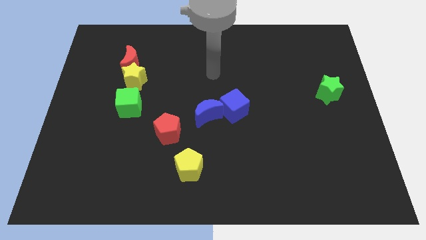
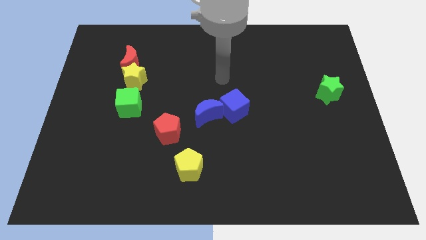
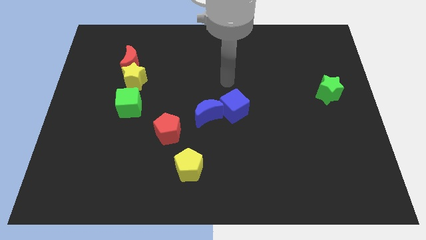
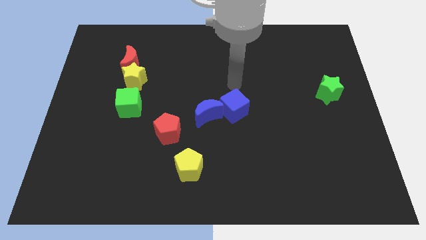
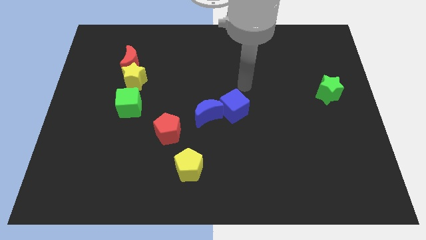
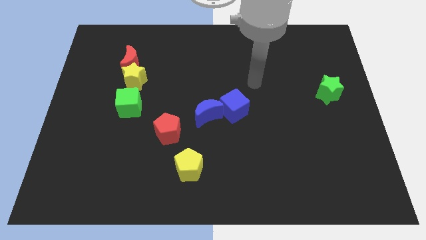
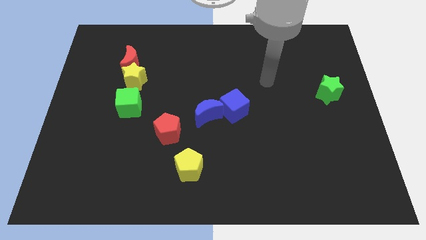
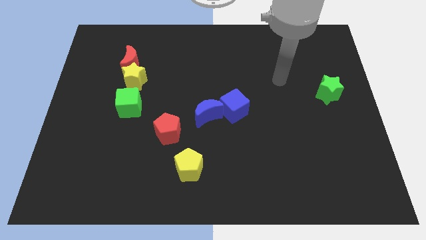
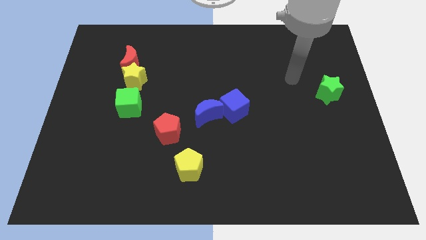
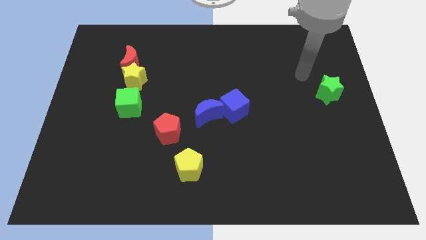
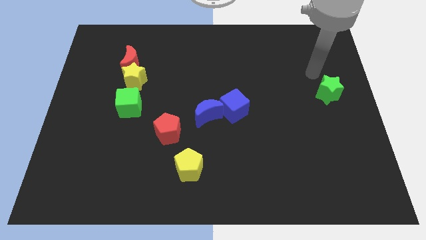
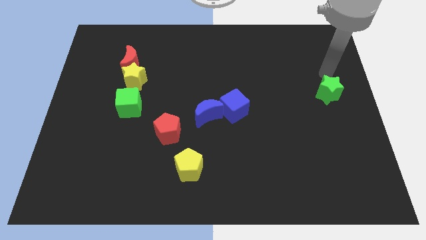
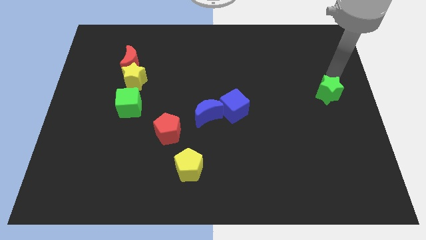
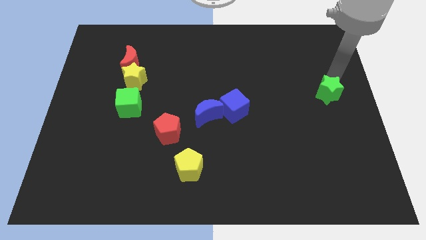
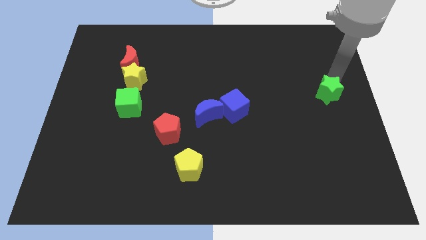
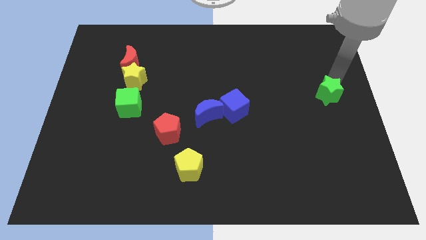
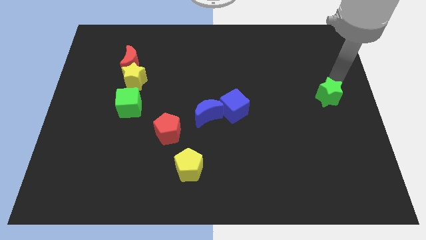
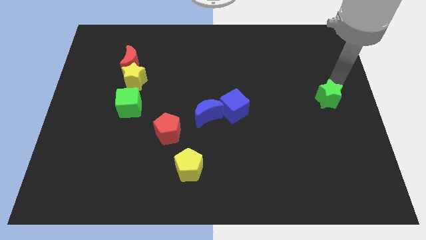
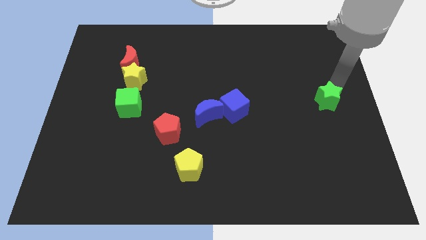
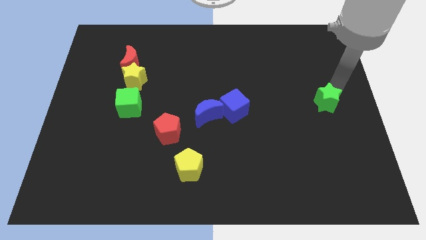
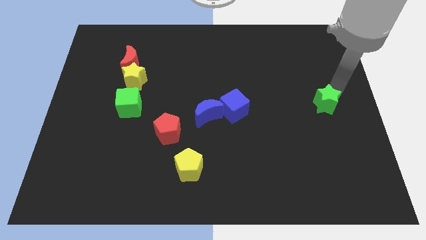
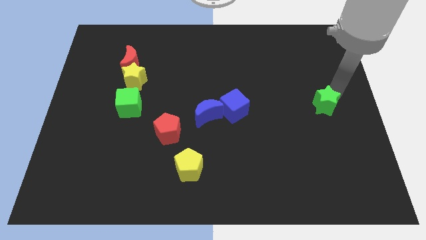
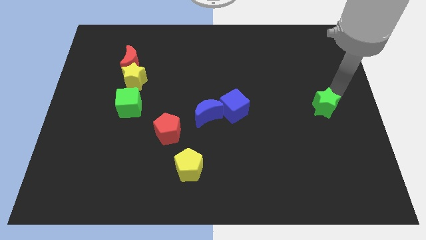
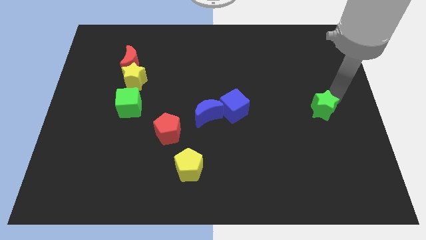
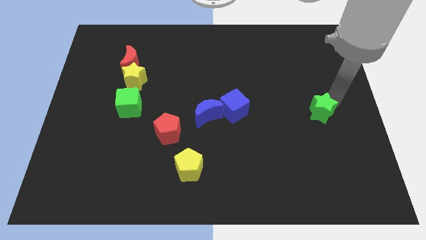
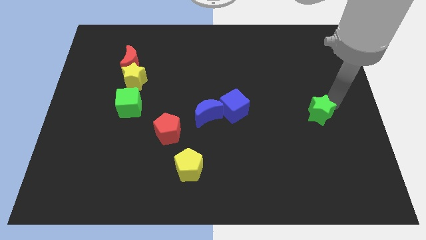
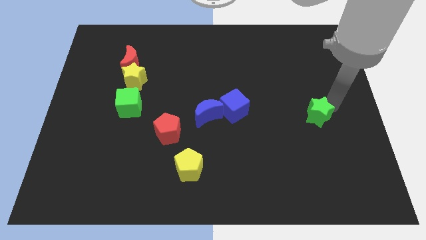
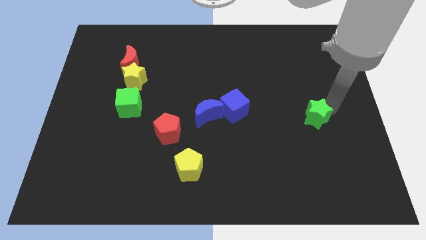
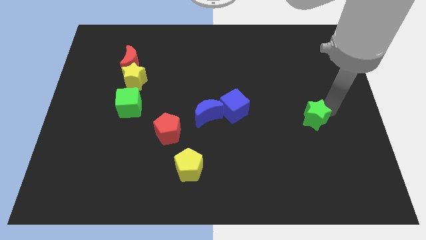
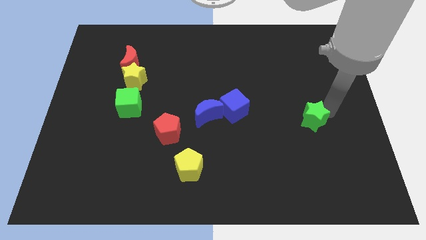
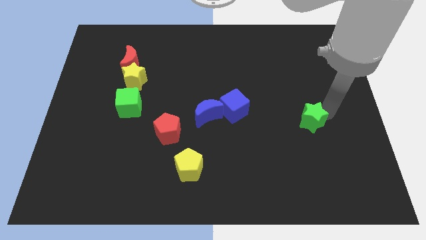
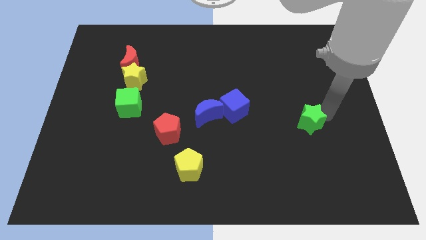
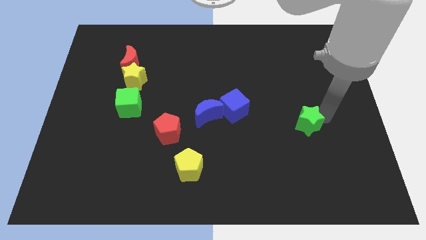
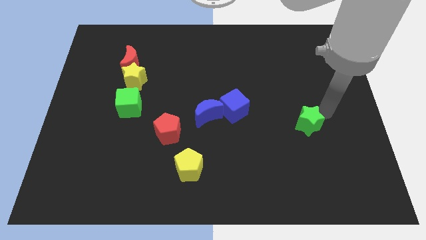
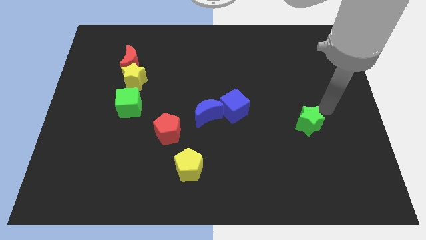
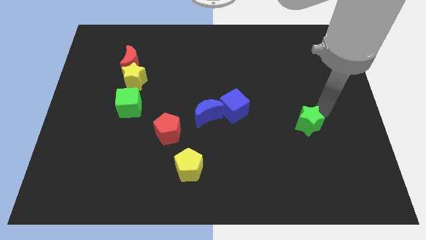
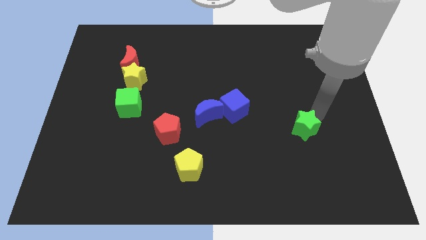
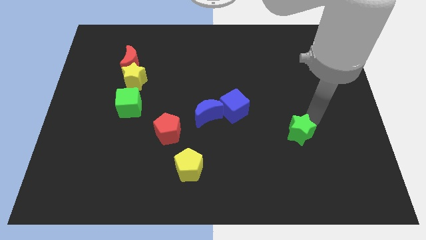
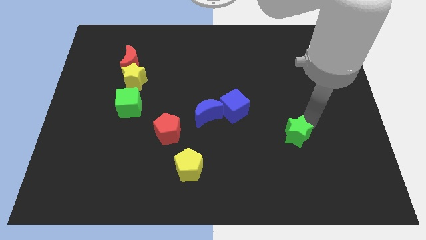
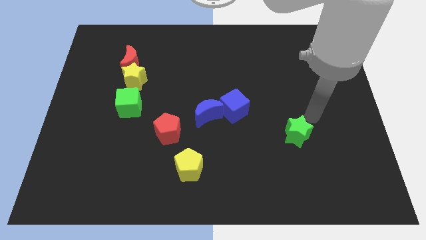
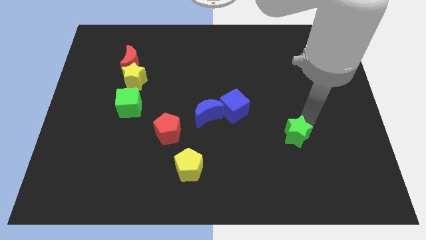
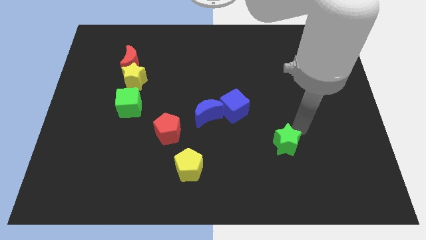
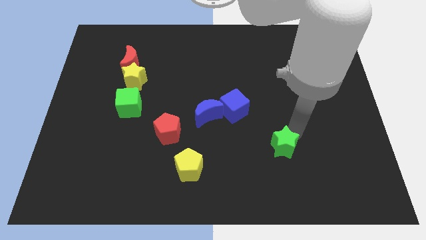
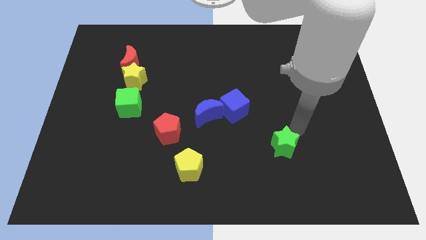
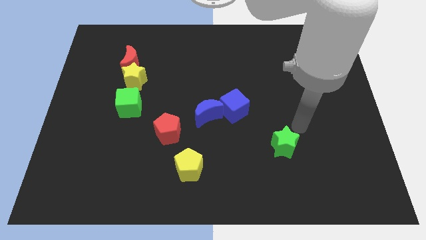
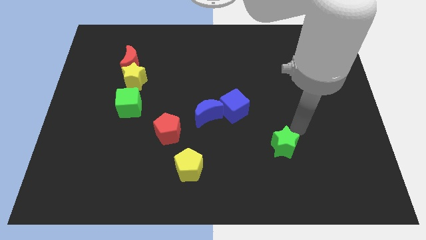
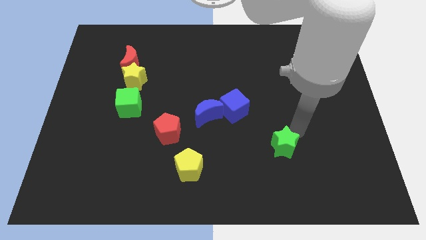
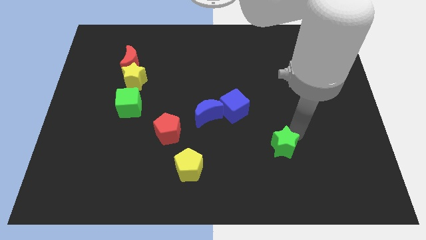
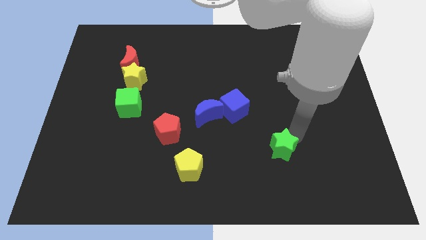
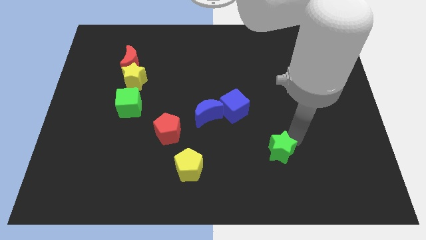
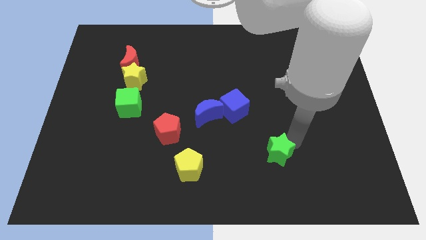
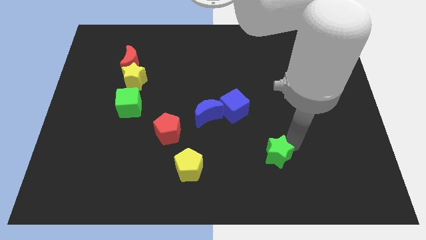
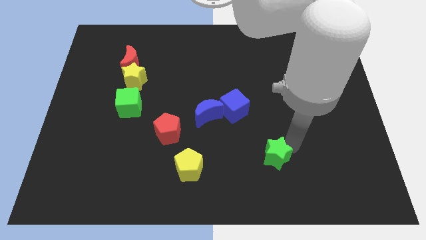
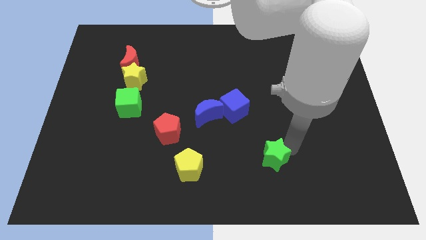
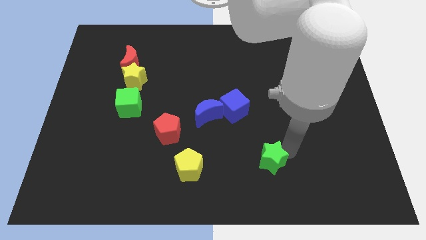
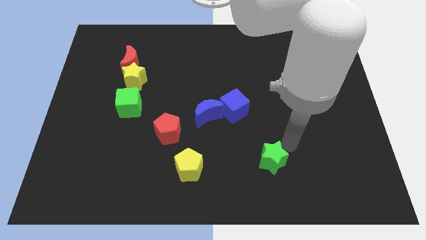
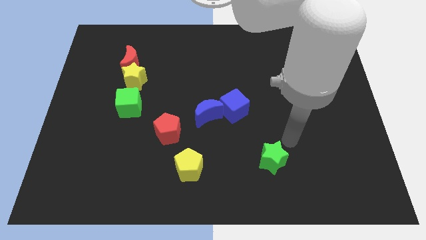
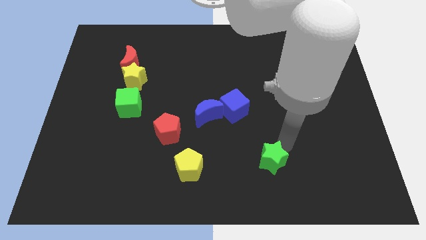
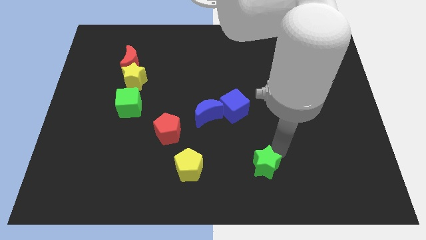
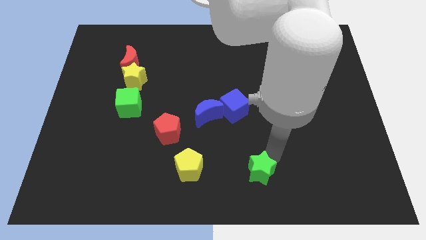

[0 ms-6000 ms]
put the green star to the bottom

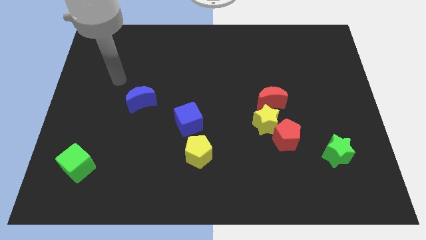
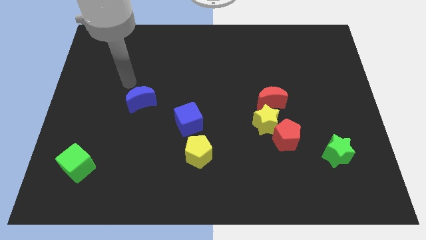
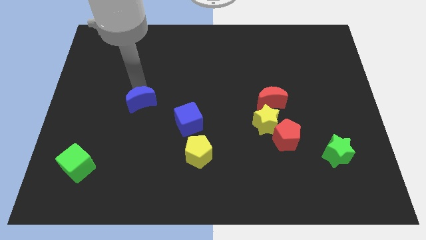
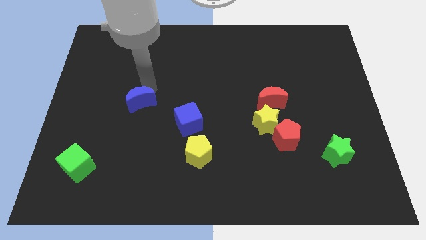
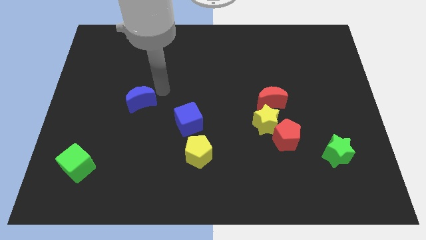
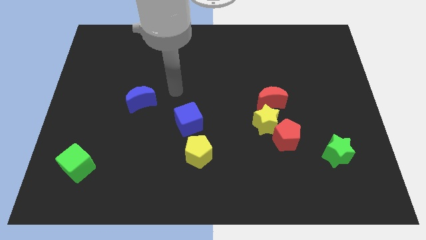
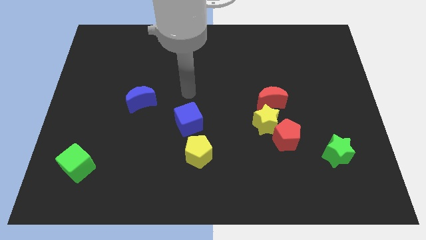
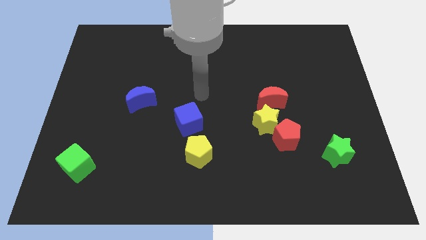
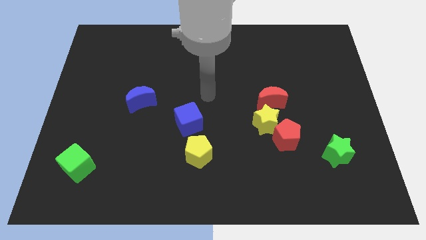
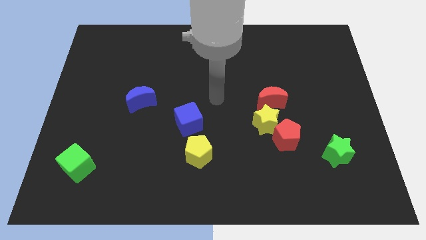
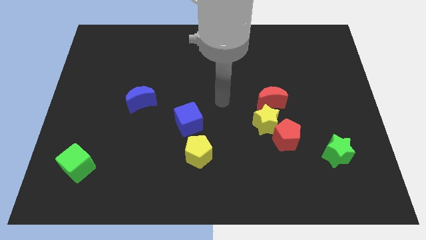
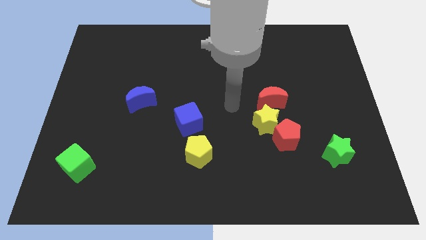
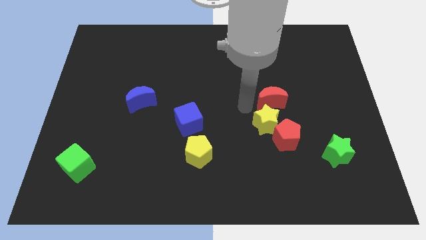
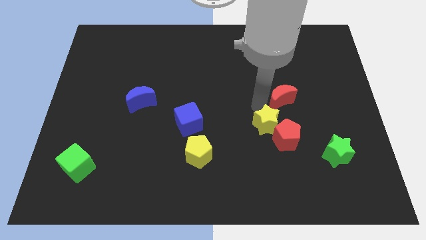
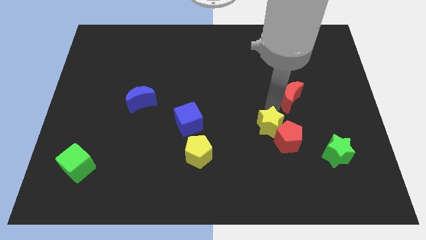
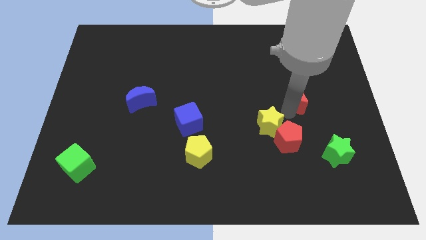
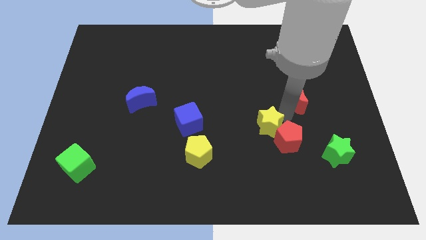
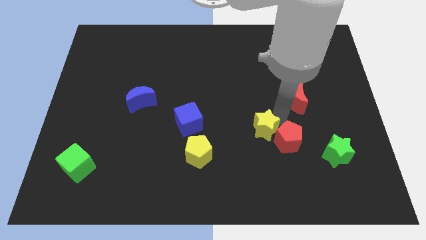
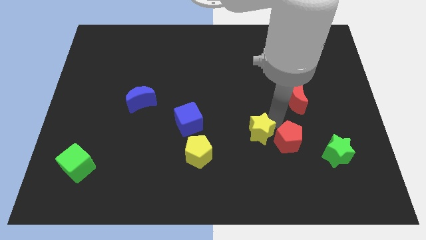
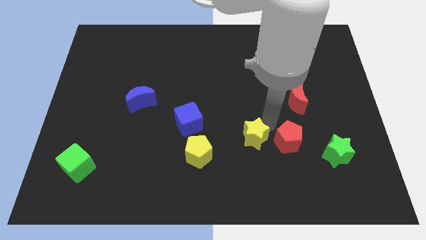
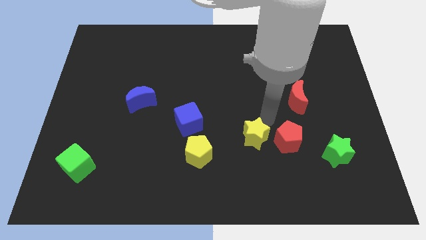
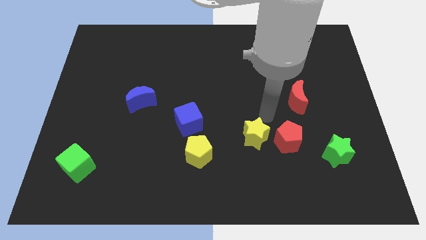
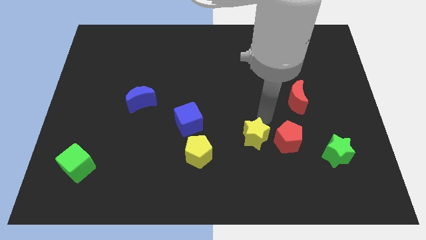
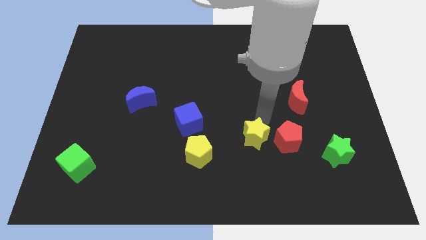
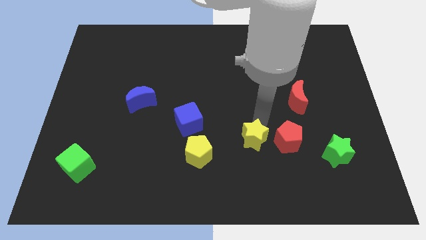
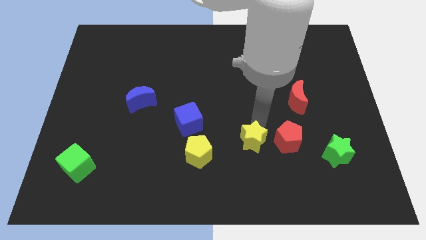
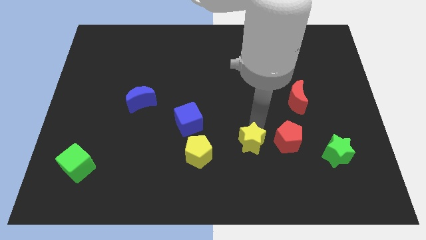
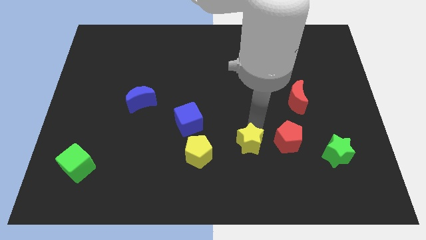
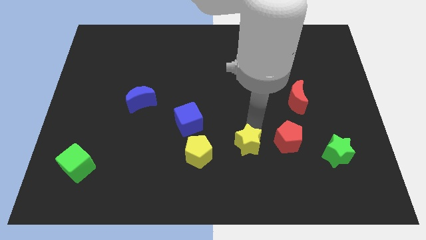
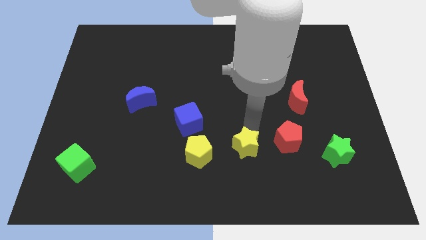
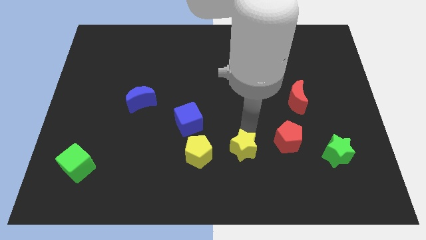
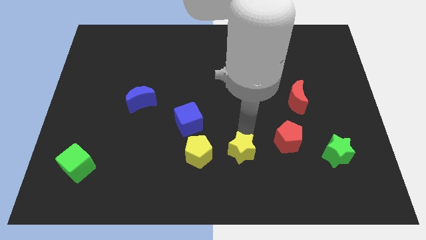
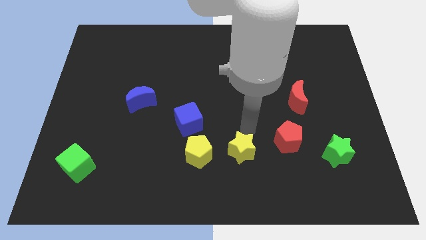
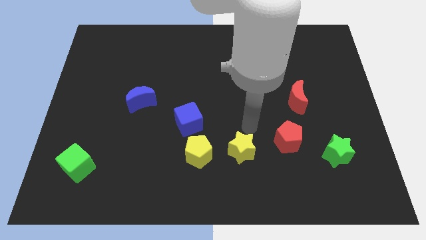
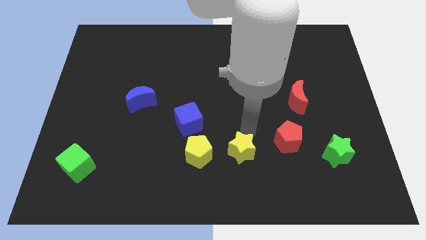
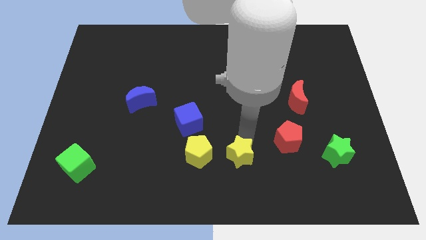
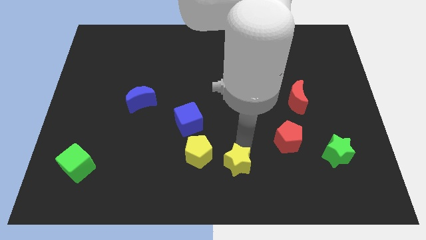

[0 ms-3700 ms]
push the yellow star to the bottom side
